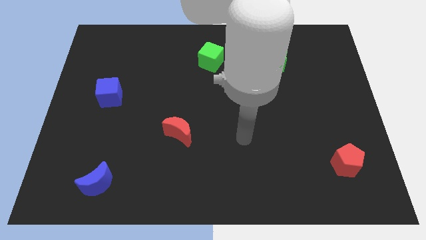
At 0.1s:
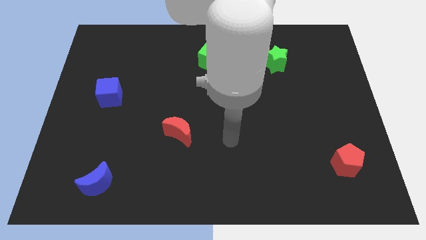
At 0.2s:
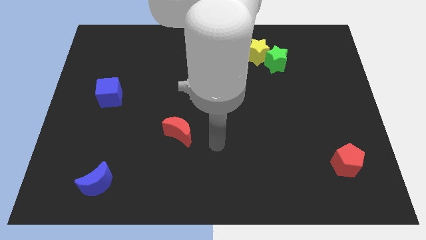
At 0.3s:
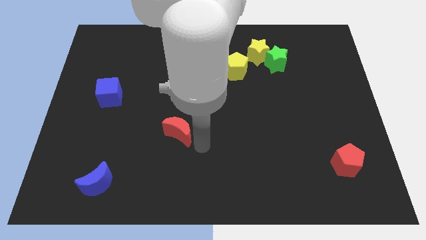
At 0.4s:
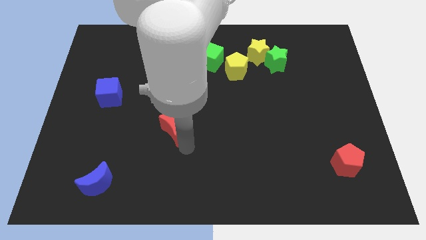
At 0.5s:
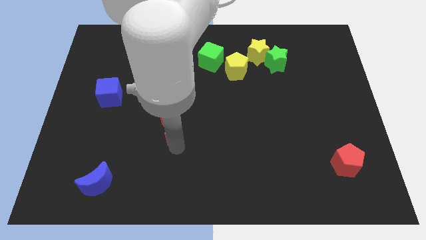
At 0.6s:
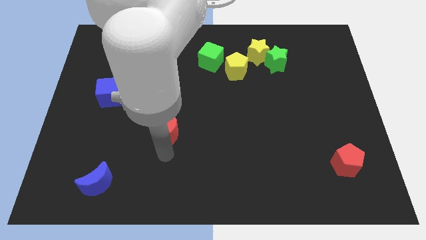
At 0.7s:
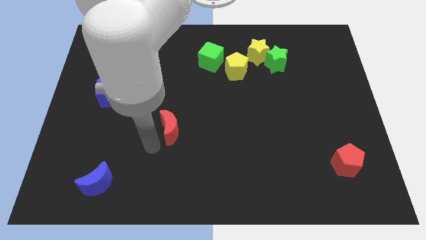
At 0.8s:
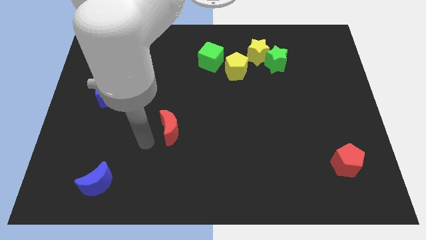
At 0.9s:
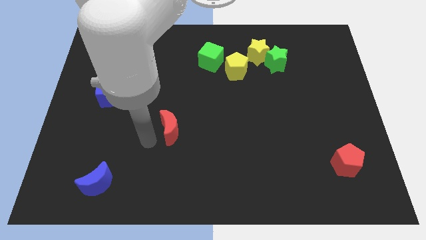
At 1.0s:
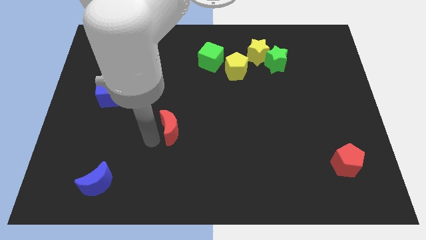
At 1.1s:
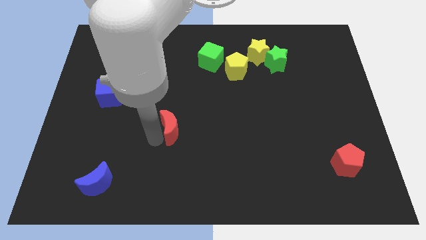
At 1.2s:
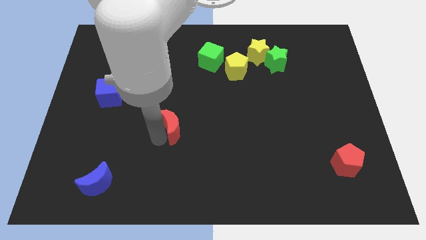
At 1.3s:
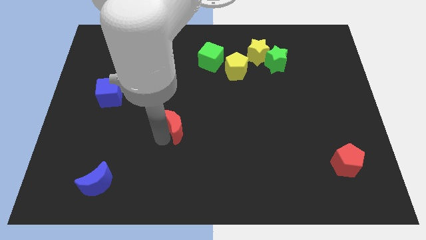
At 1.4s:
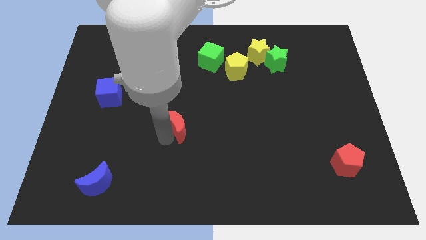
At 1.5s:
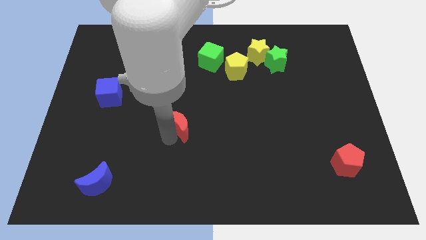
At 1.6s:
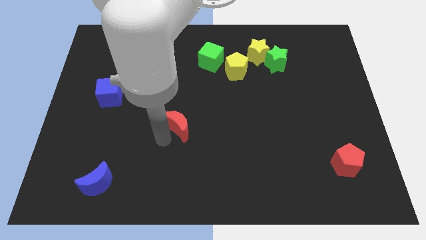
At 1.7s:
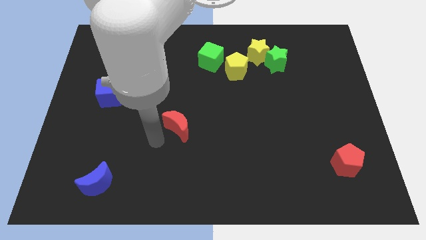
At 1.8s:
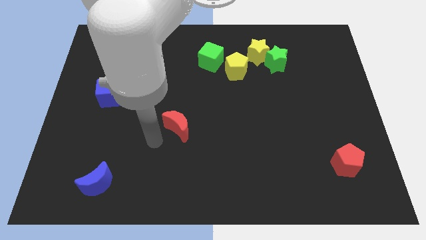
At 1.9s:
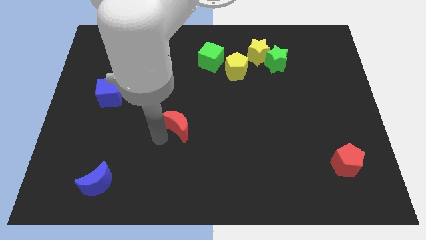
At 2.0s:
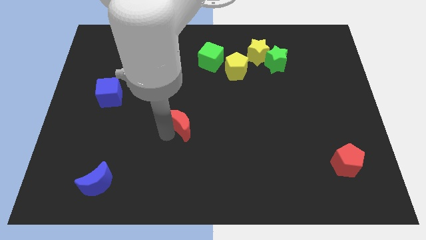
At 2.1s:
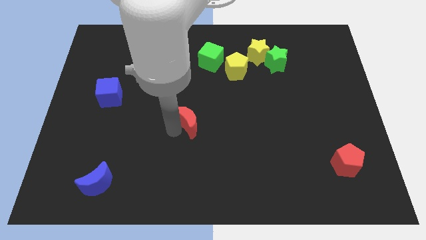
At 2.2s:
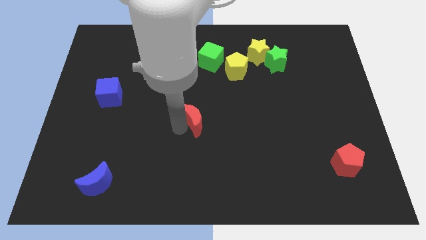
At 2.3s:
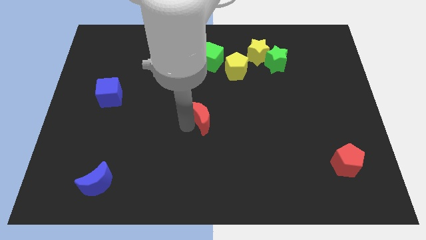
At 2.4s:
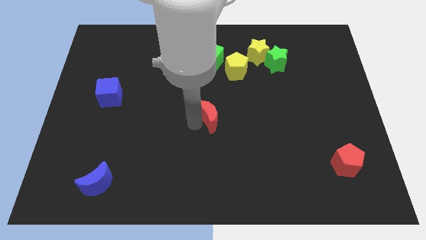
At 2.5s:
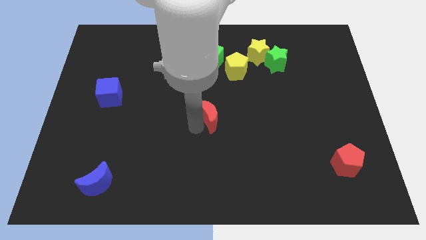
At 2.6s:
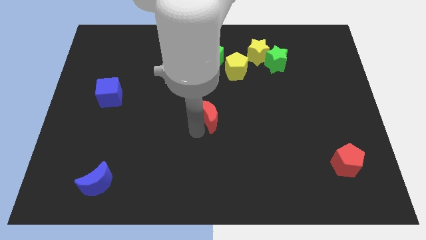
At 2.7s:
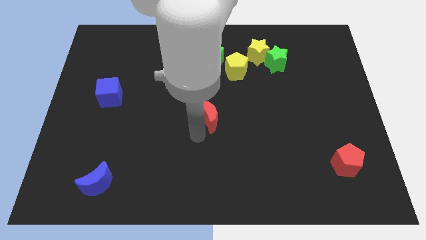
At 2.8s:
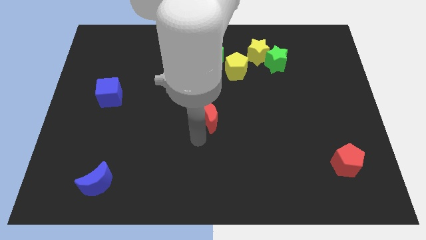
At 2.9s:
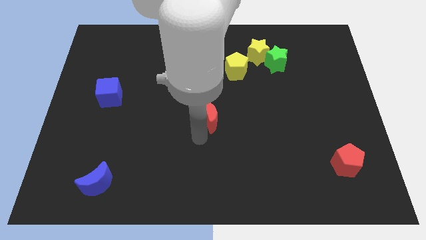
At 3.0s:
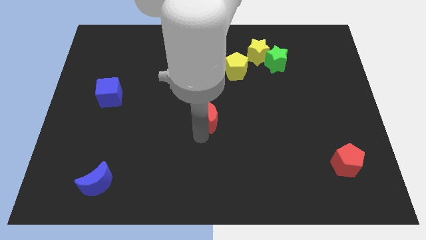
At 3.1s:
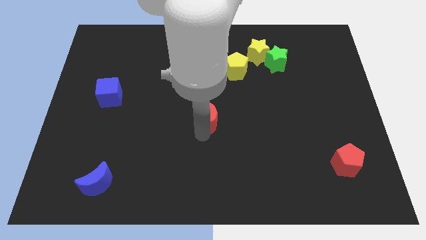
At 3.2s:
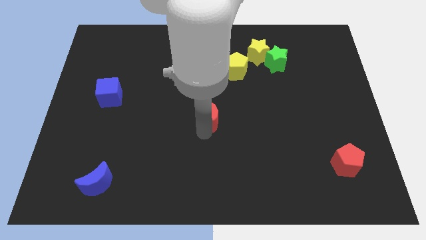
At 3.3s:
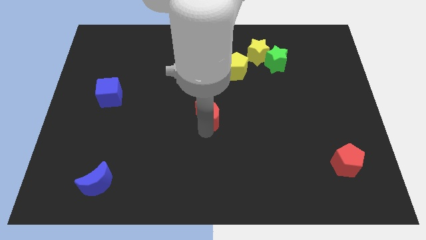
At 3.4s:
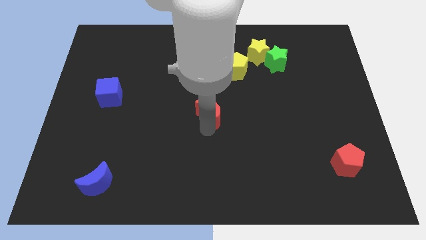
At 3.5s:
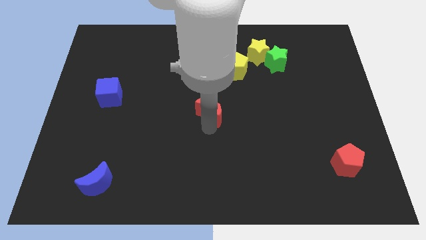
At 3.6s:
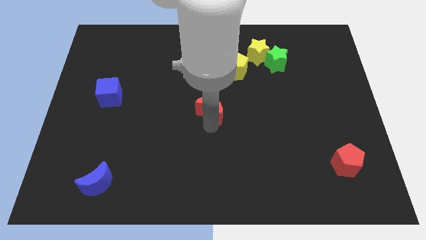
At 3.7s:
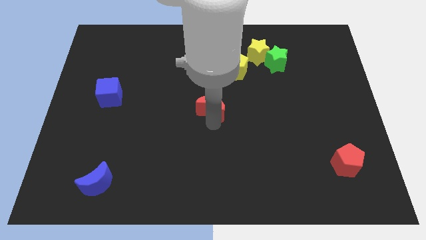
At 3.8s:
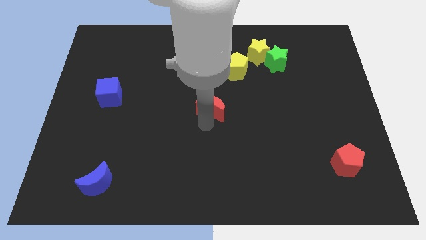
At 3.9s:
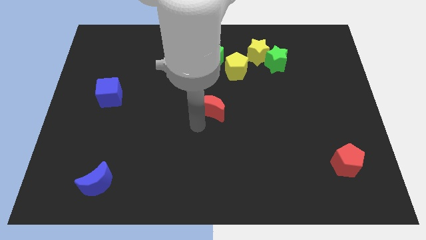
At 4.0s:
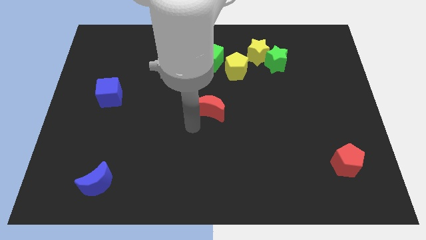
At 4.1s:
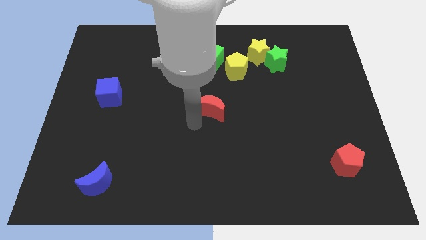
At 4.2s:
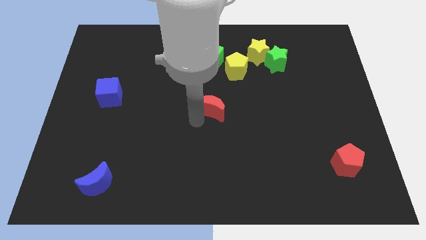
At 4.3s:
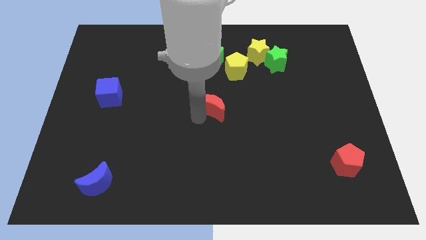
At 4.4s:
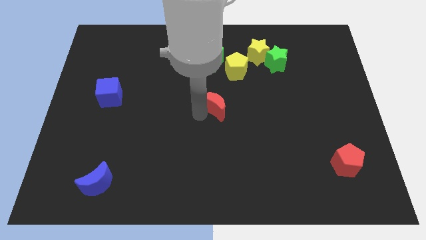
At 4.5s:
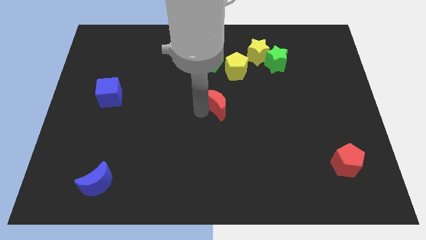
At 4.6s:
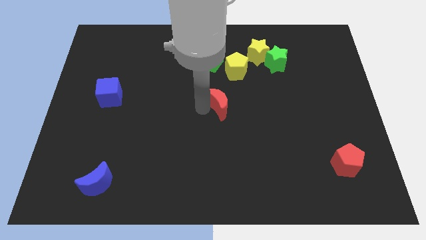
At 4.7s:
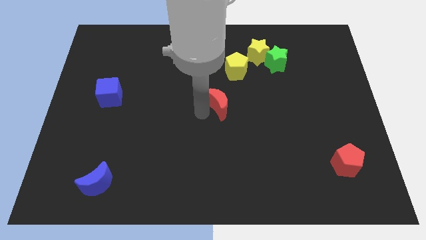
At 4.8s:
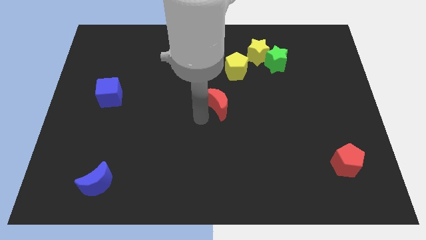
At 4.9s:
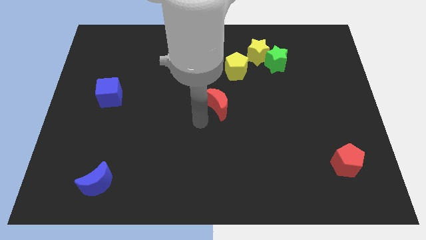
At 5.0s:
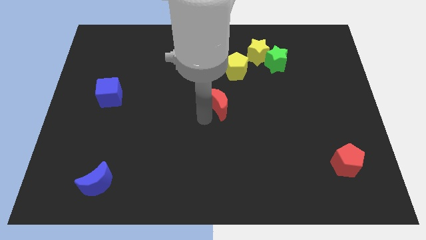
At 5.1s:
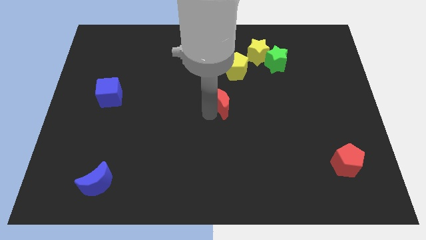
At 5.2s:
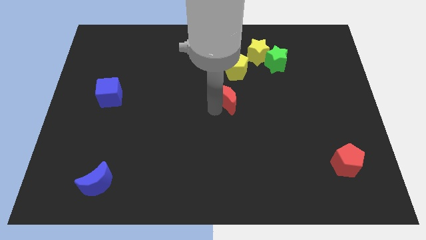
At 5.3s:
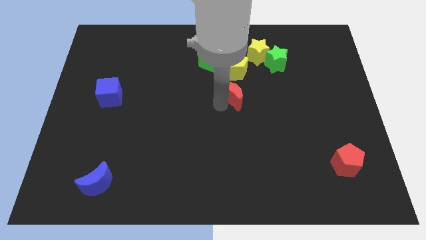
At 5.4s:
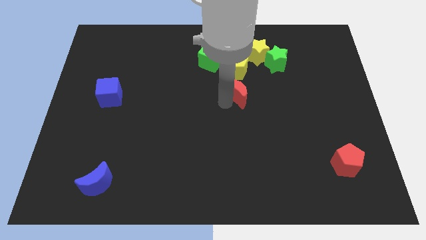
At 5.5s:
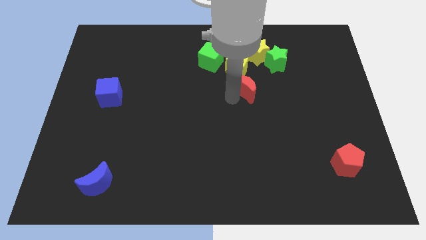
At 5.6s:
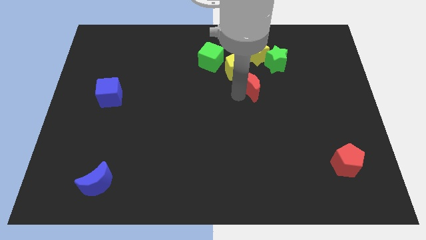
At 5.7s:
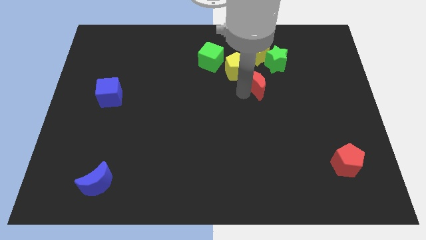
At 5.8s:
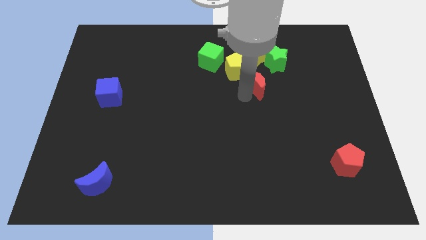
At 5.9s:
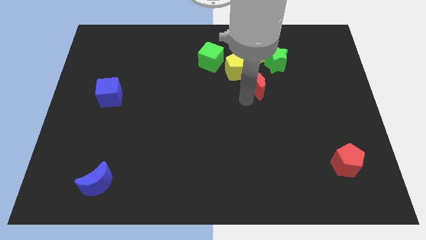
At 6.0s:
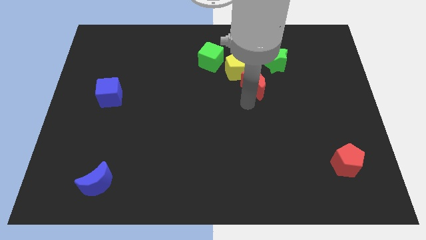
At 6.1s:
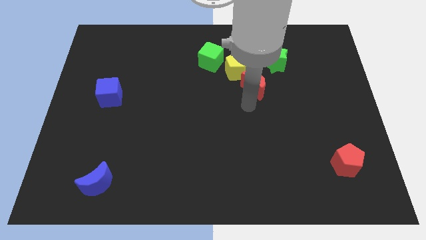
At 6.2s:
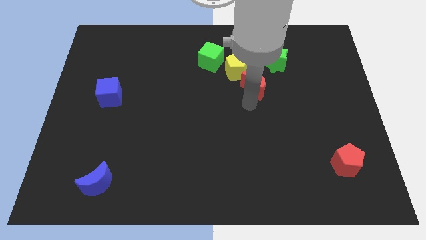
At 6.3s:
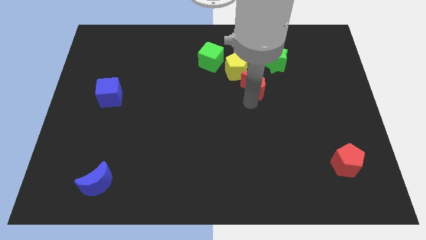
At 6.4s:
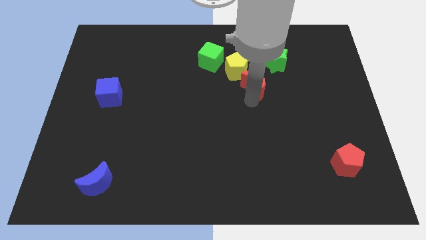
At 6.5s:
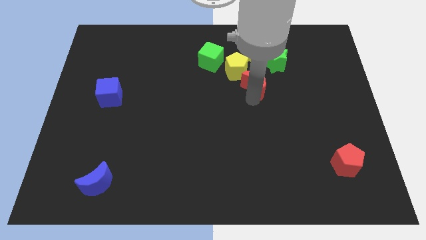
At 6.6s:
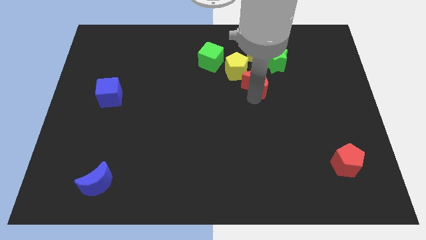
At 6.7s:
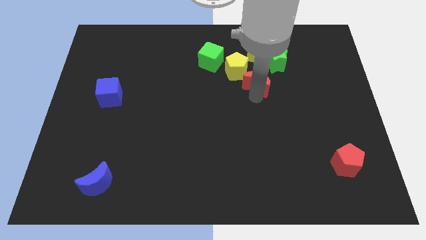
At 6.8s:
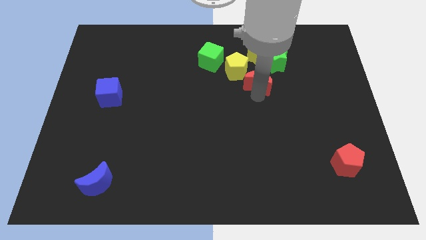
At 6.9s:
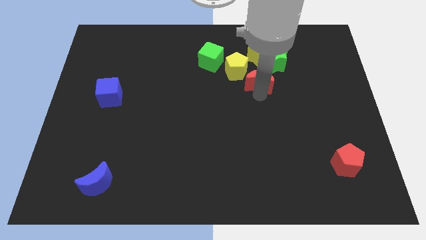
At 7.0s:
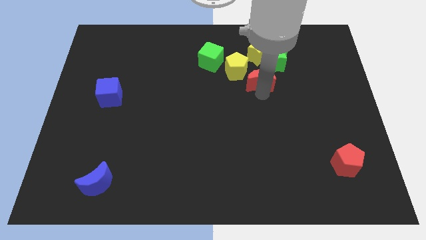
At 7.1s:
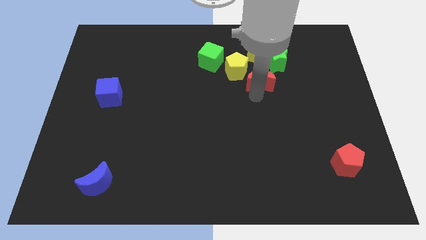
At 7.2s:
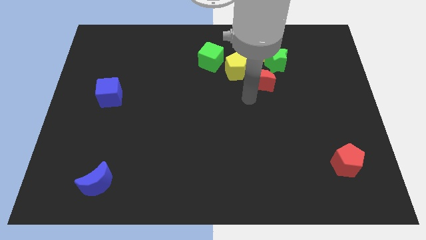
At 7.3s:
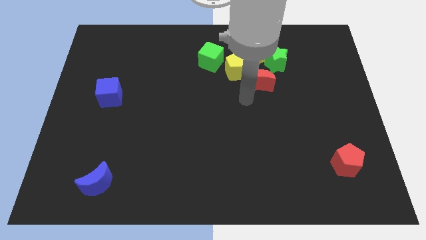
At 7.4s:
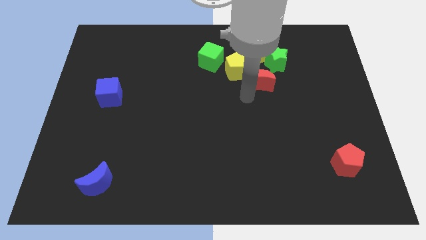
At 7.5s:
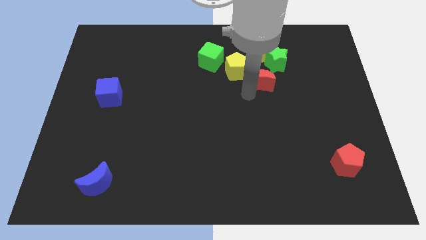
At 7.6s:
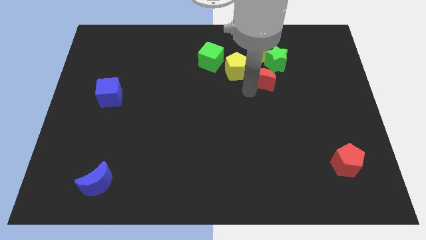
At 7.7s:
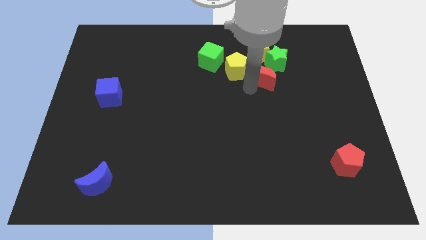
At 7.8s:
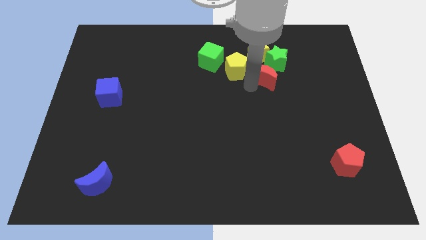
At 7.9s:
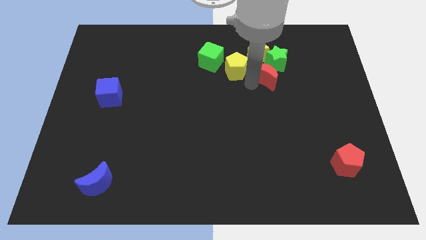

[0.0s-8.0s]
slide the red moon to the green star
